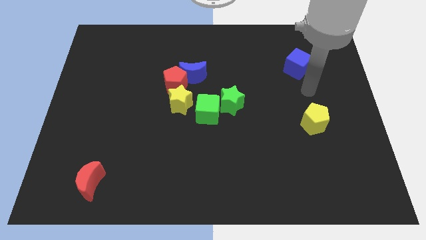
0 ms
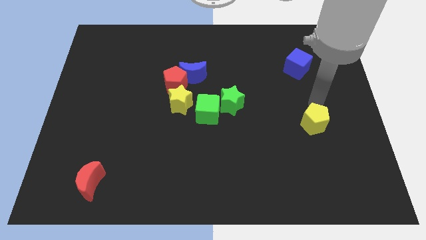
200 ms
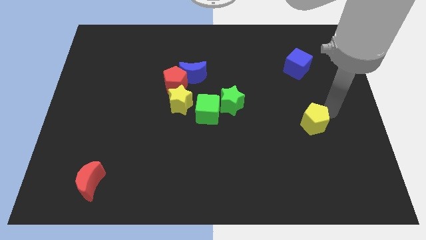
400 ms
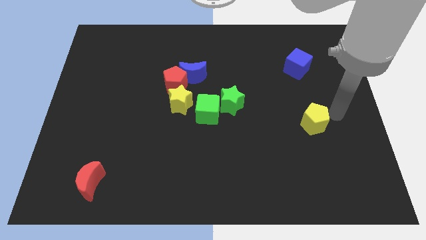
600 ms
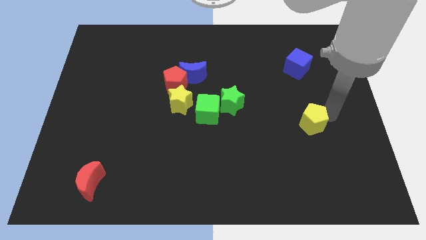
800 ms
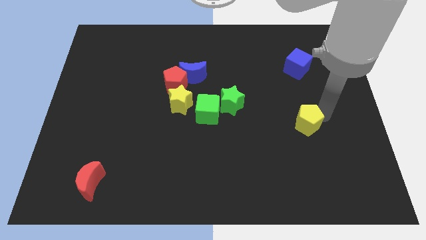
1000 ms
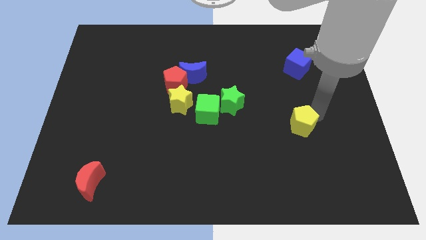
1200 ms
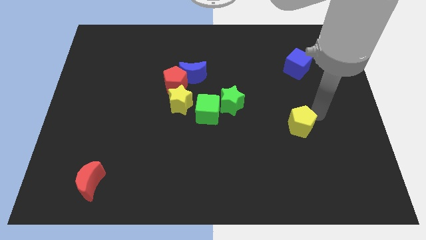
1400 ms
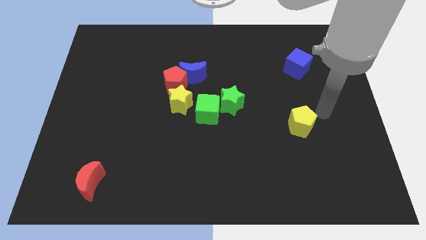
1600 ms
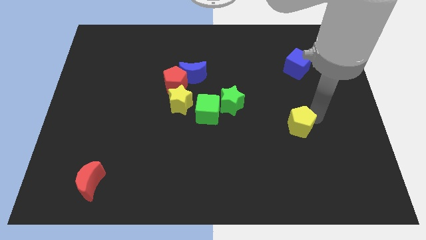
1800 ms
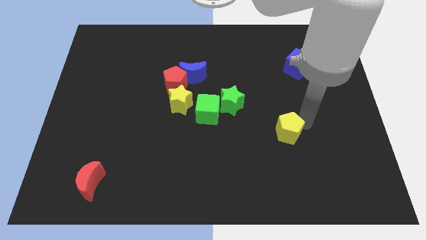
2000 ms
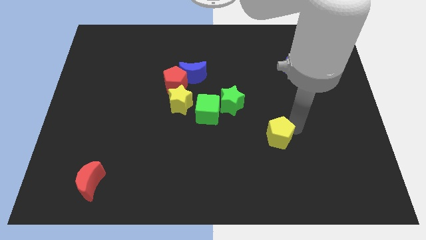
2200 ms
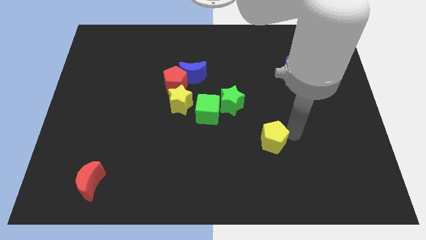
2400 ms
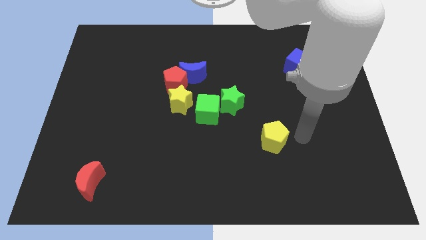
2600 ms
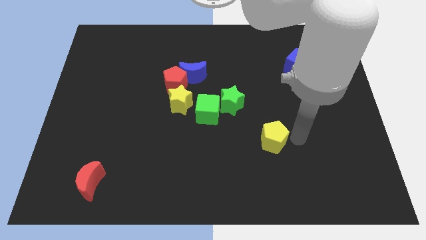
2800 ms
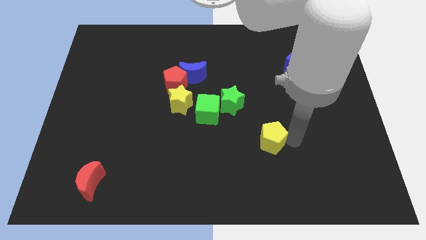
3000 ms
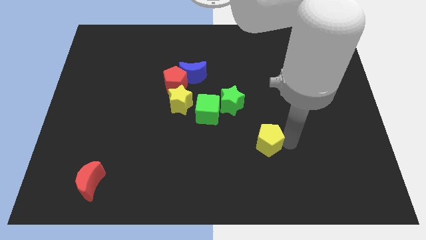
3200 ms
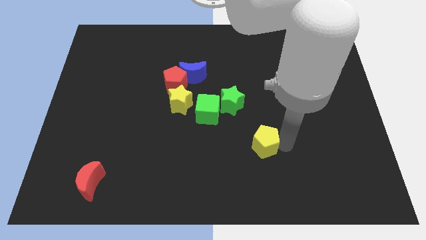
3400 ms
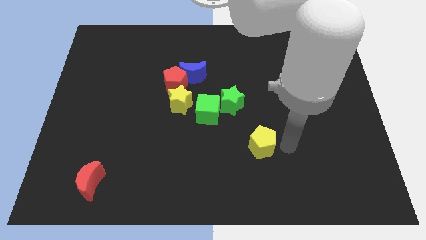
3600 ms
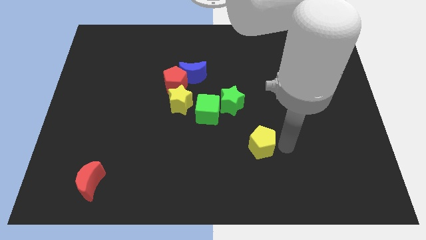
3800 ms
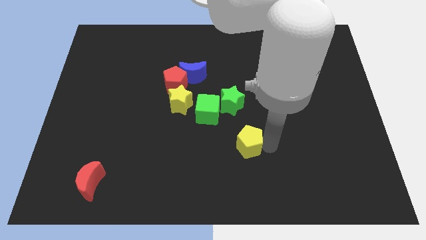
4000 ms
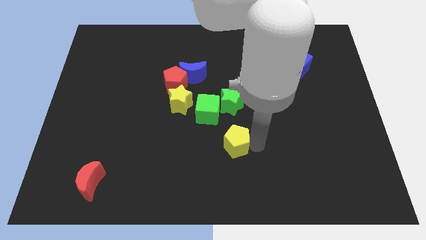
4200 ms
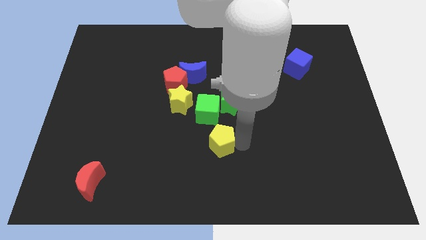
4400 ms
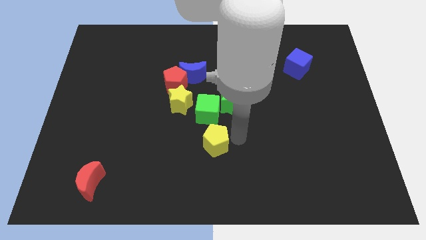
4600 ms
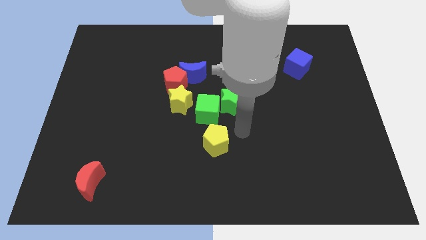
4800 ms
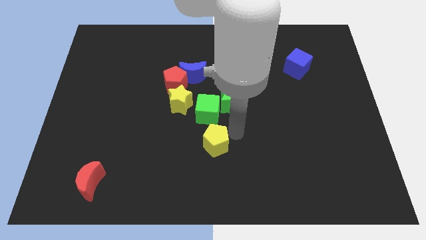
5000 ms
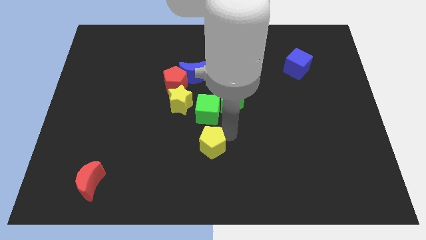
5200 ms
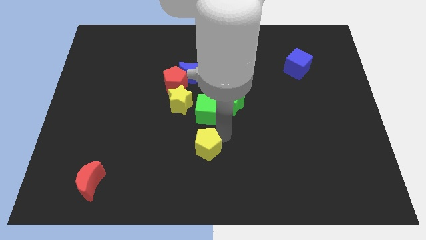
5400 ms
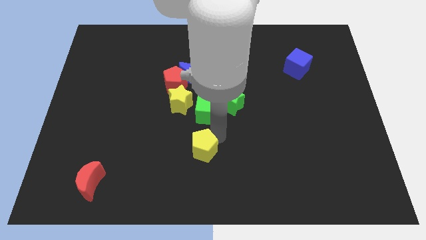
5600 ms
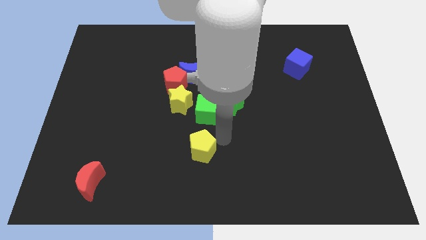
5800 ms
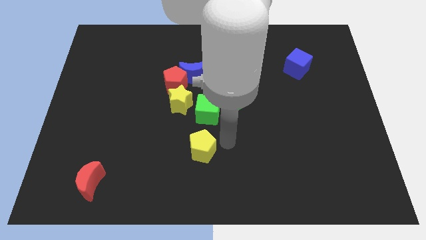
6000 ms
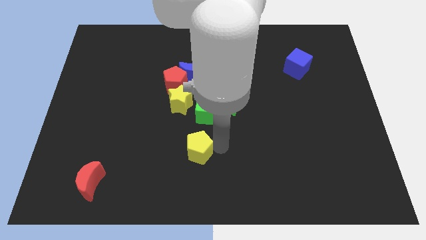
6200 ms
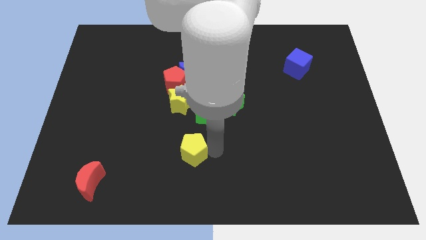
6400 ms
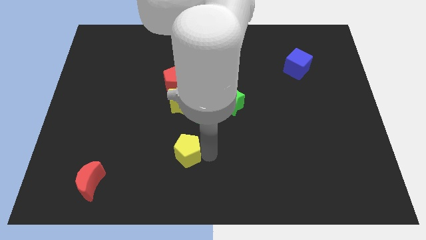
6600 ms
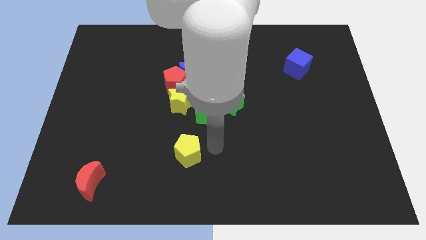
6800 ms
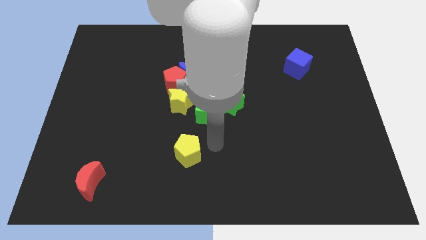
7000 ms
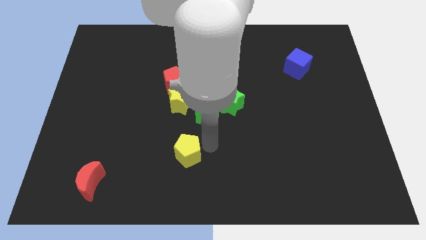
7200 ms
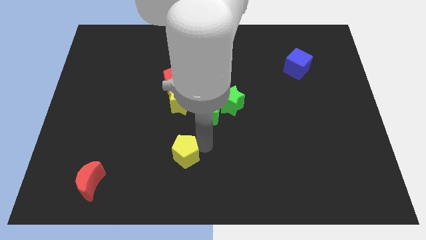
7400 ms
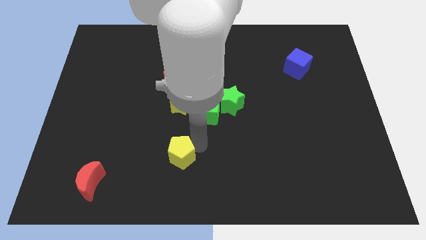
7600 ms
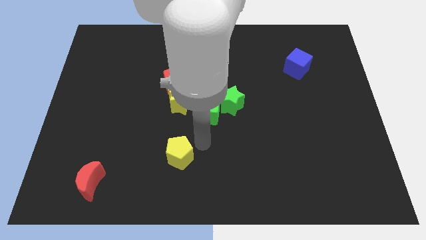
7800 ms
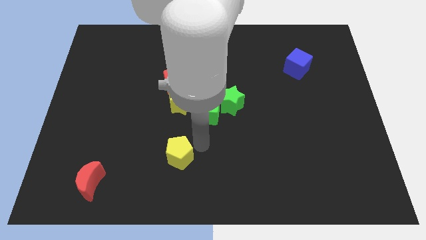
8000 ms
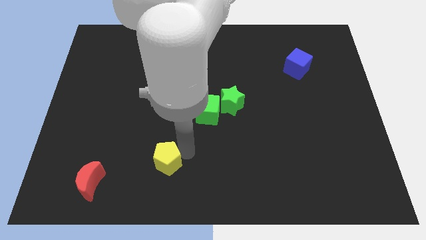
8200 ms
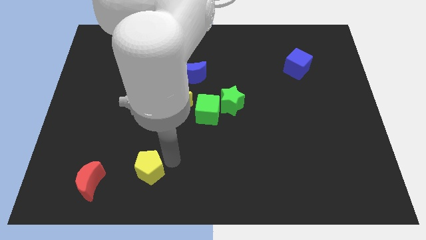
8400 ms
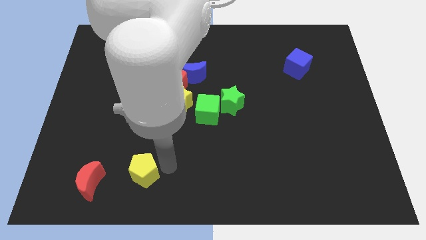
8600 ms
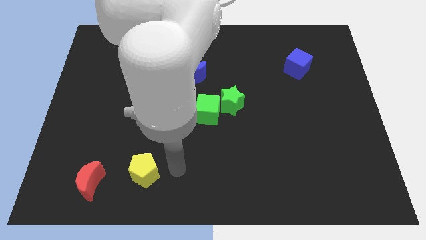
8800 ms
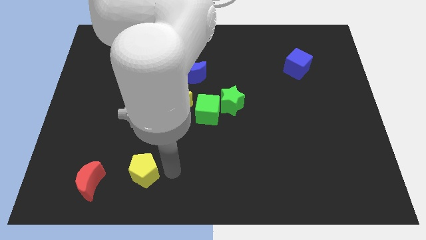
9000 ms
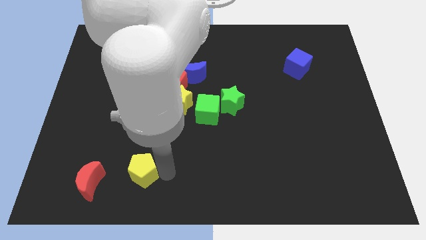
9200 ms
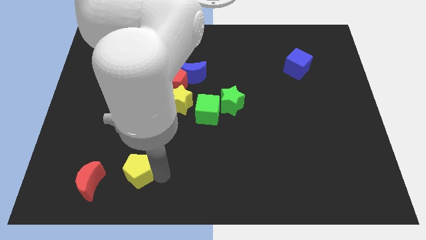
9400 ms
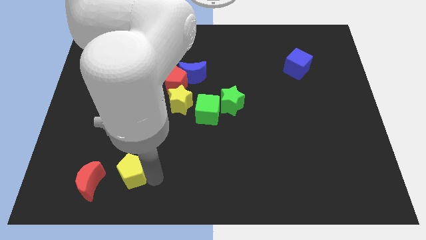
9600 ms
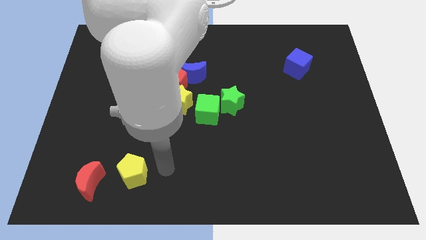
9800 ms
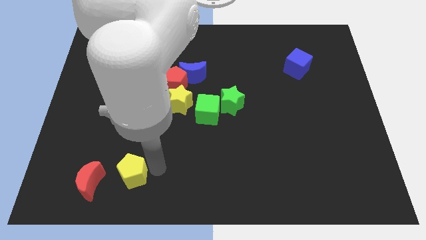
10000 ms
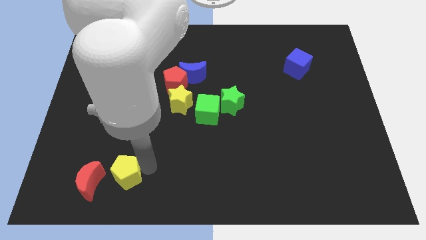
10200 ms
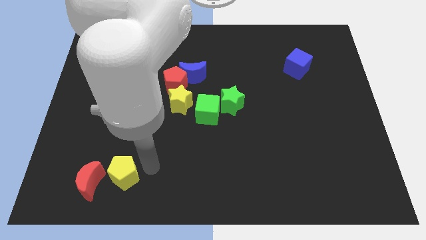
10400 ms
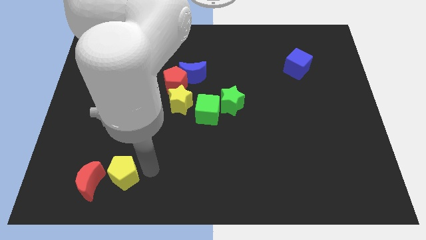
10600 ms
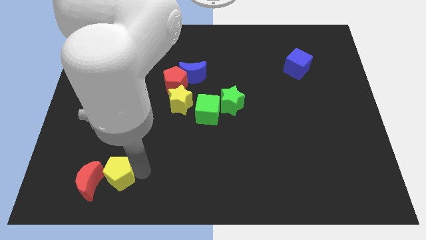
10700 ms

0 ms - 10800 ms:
move the yellow pentagon towards the red moon

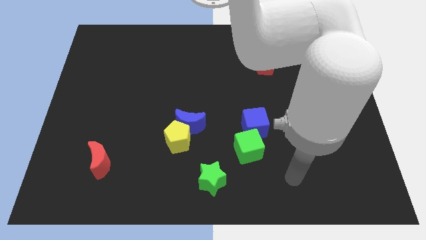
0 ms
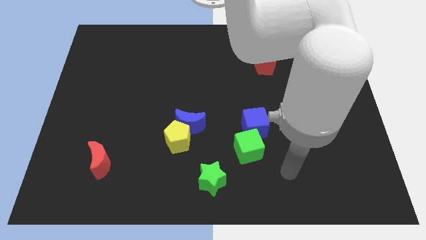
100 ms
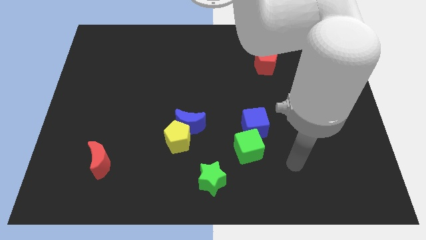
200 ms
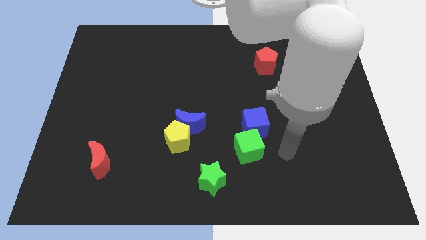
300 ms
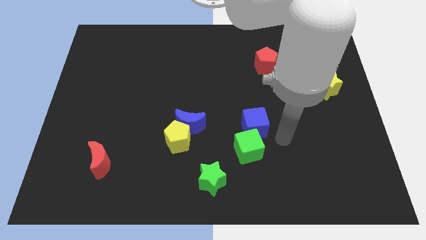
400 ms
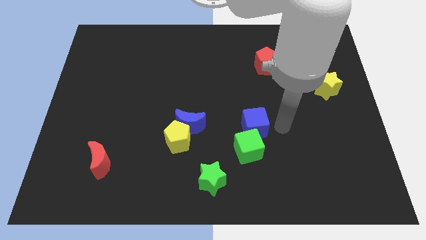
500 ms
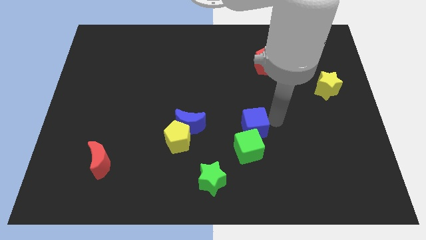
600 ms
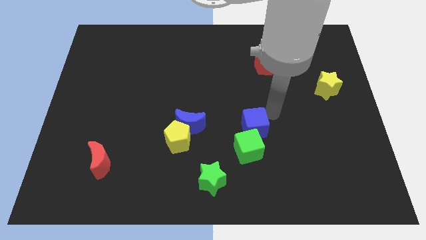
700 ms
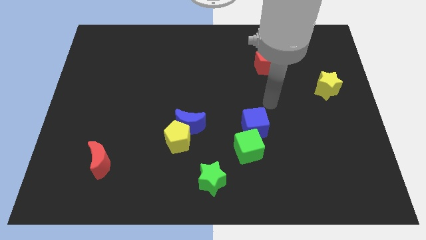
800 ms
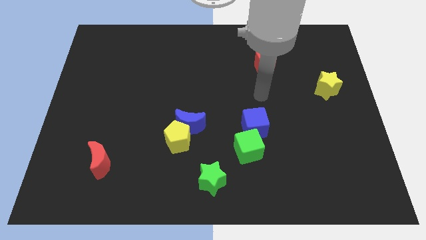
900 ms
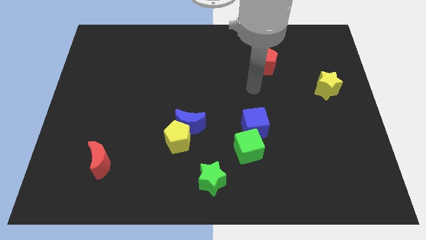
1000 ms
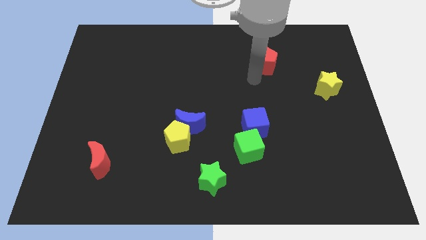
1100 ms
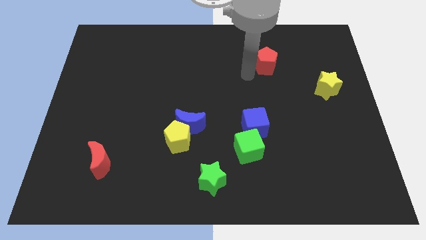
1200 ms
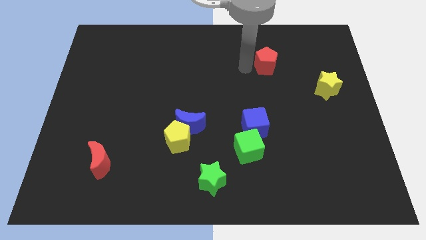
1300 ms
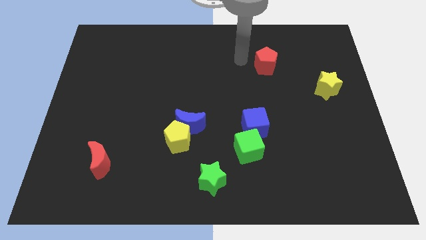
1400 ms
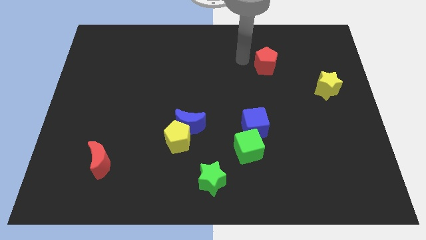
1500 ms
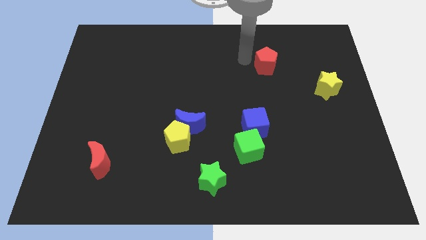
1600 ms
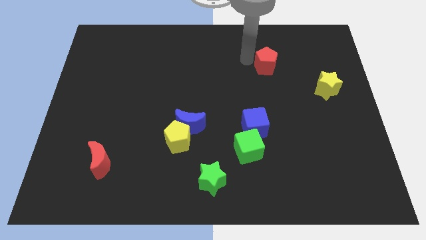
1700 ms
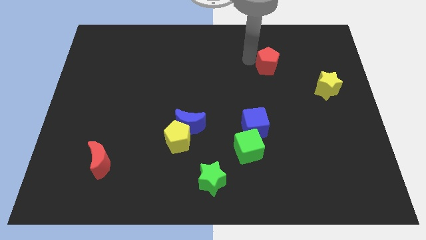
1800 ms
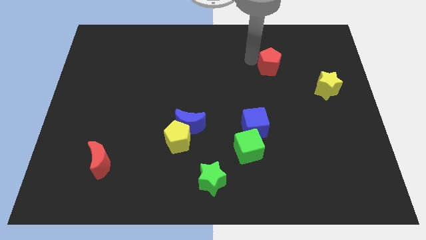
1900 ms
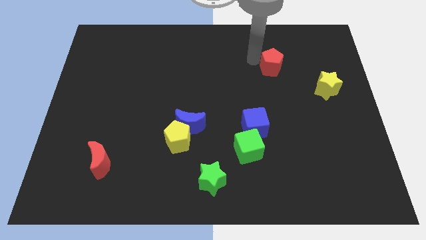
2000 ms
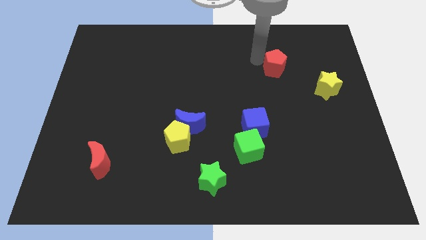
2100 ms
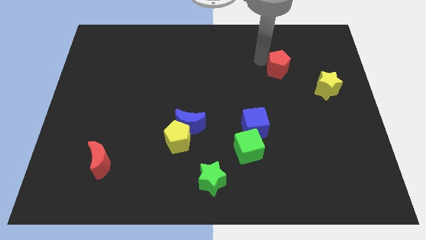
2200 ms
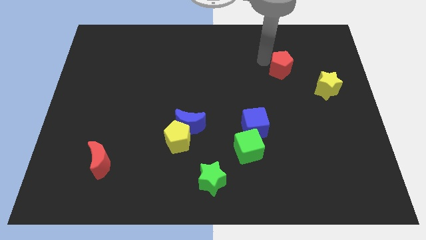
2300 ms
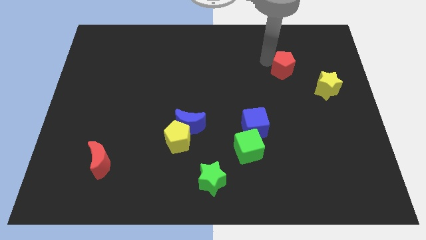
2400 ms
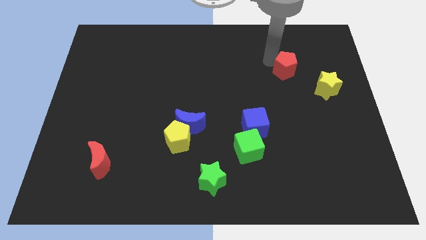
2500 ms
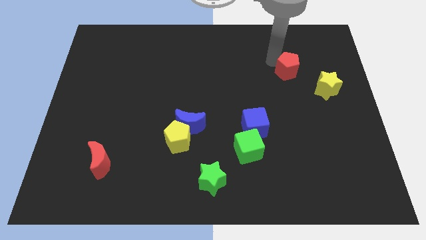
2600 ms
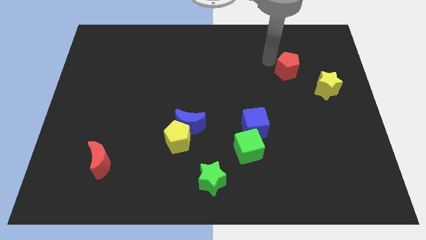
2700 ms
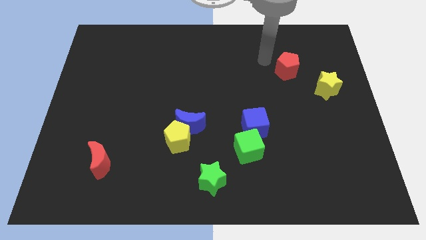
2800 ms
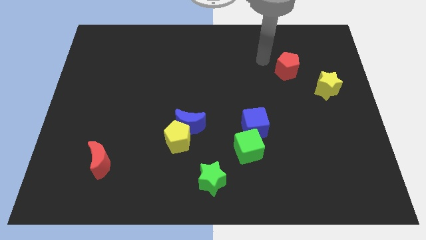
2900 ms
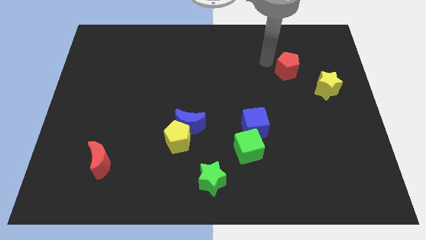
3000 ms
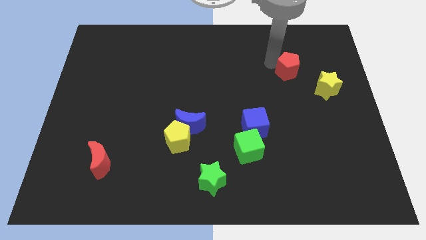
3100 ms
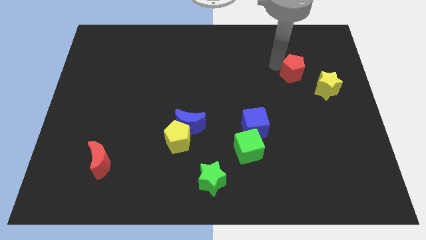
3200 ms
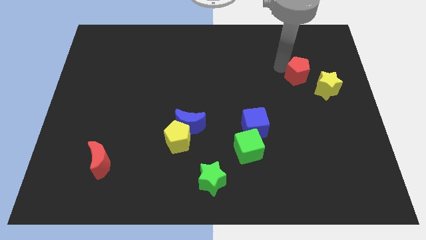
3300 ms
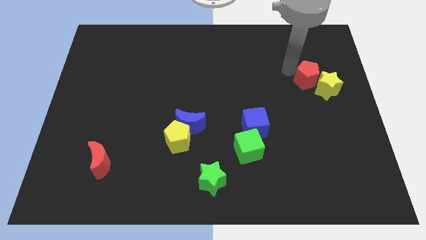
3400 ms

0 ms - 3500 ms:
move the red pentagon towards the yellow star
